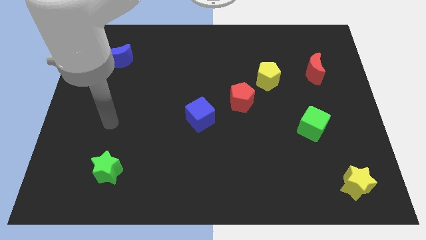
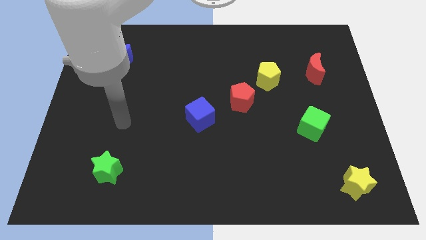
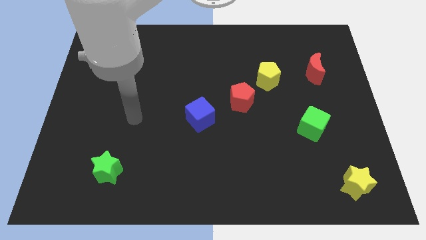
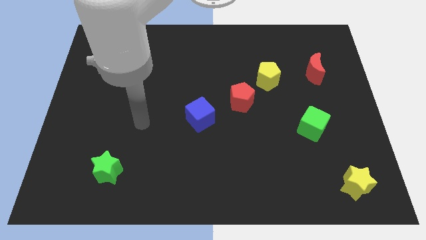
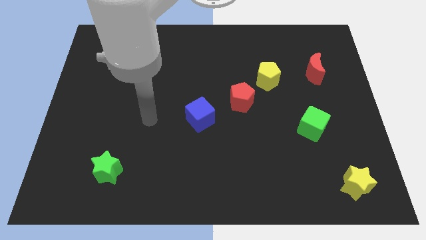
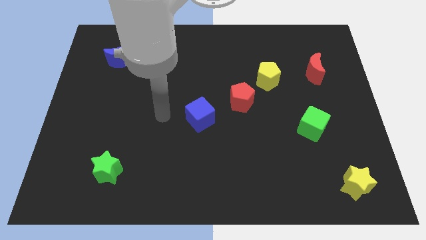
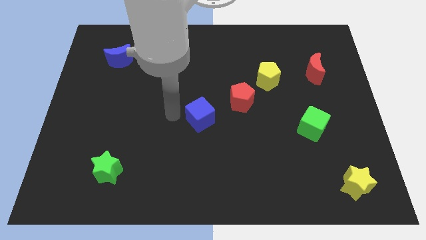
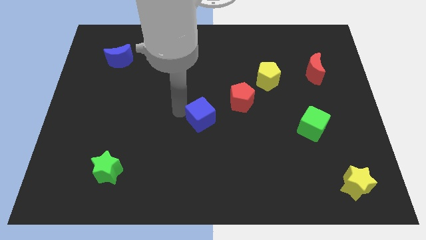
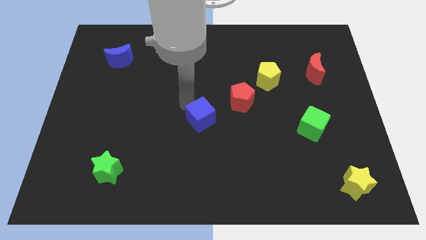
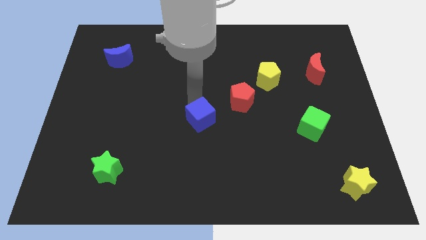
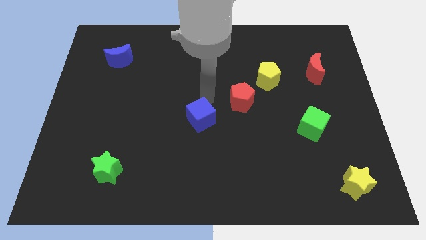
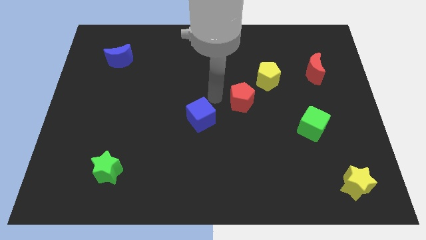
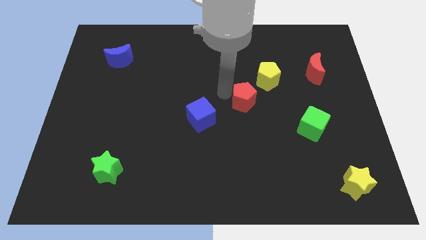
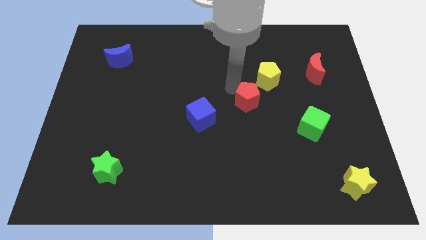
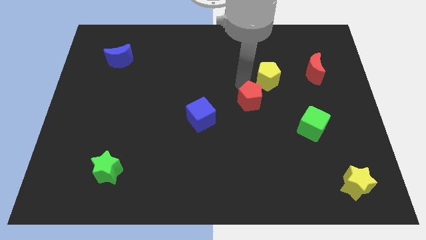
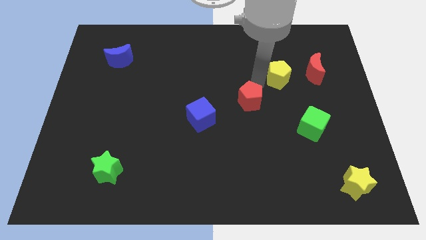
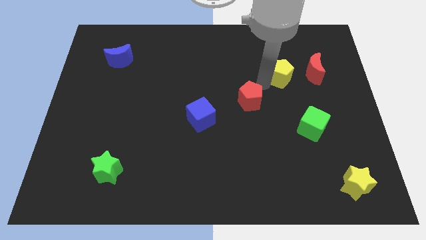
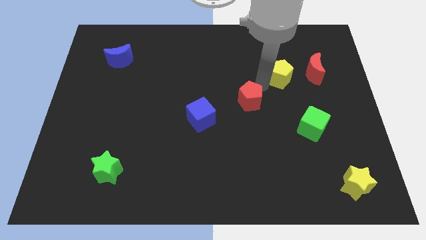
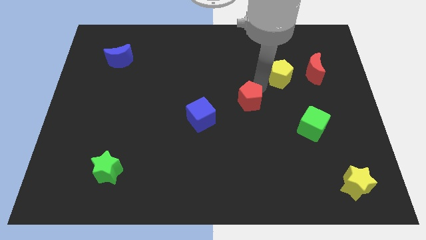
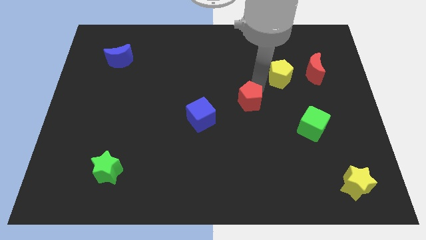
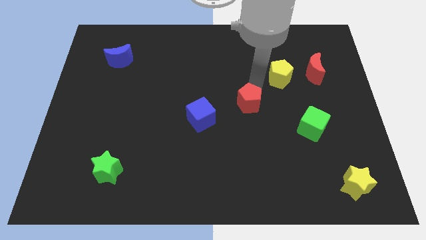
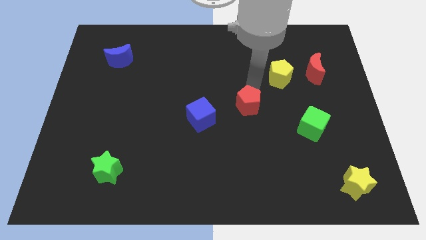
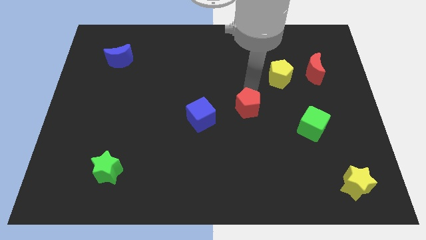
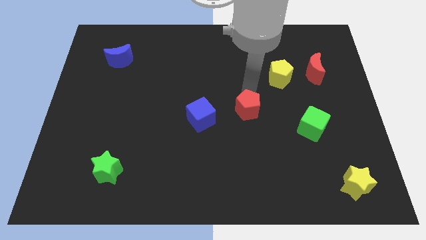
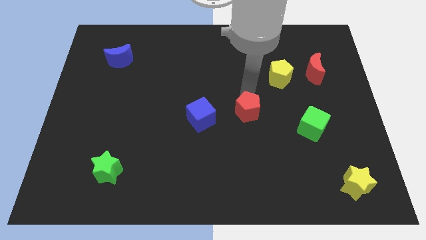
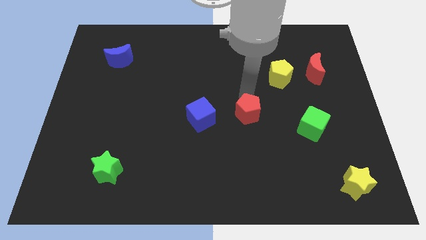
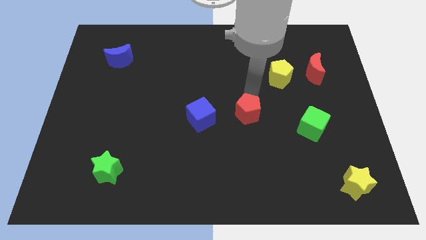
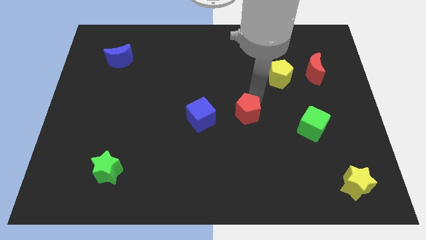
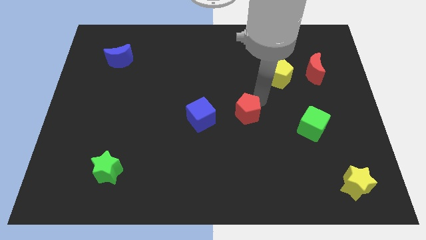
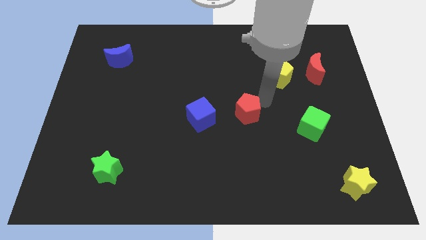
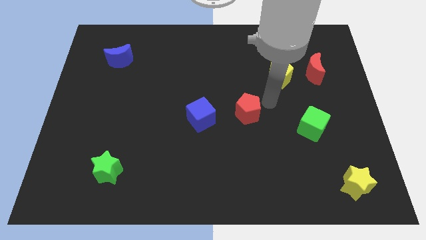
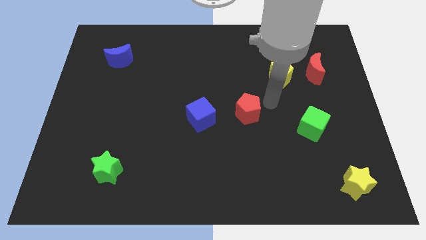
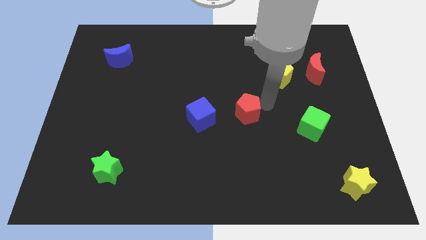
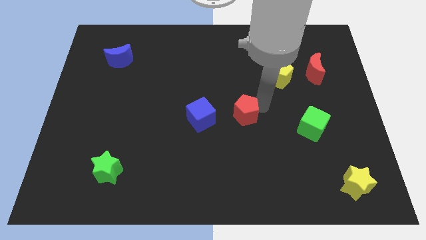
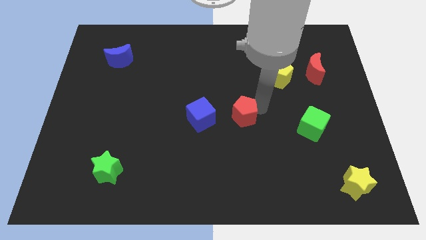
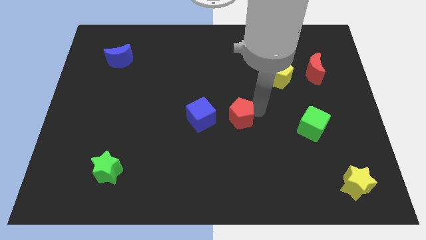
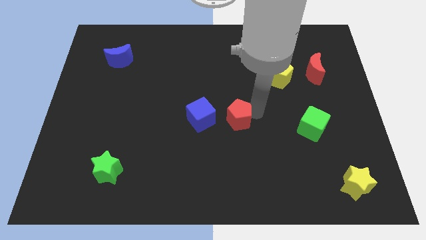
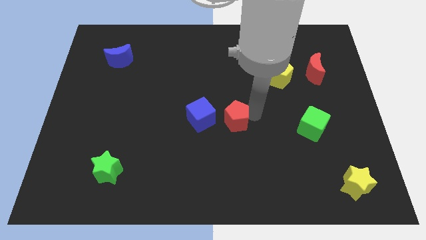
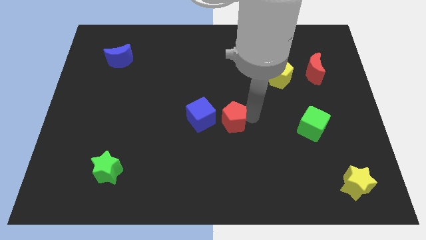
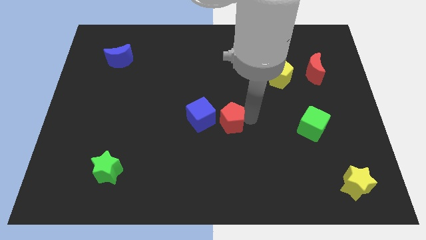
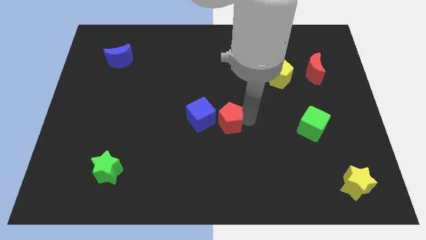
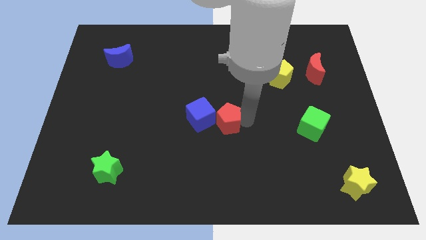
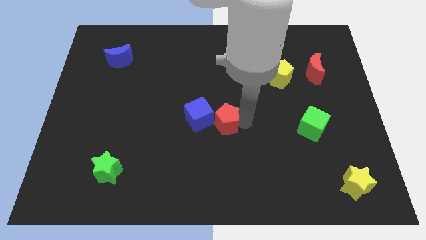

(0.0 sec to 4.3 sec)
move the red pentagon diagonally downwards and left a bit

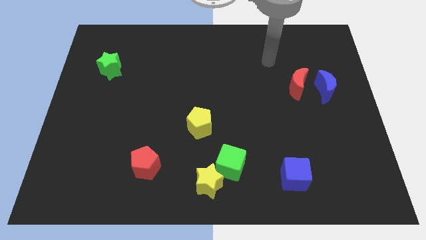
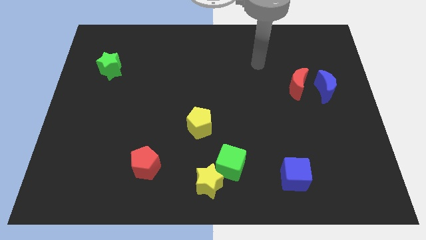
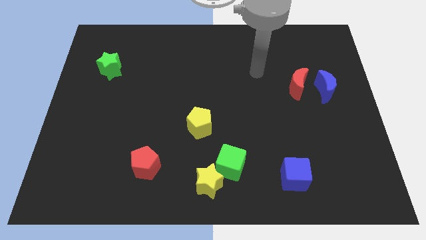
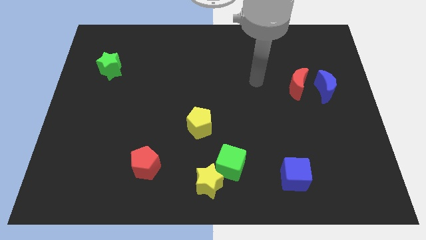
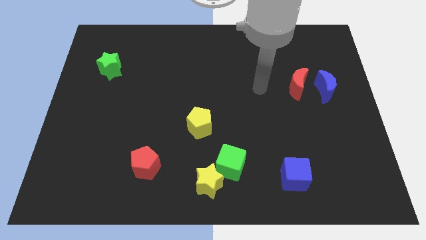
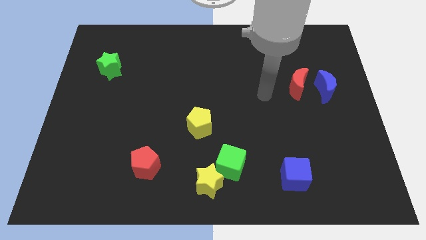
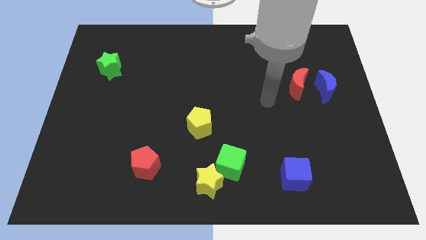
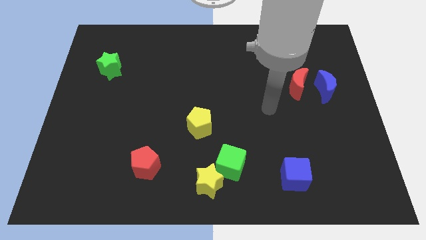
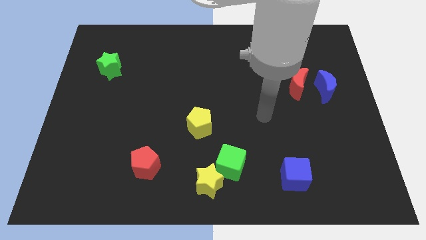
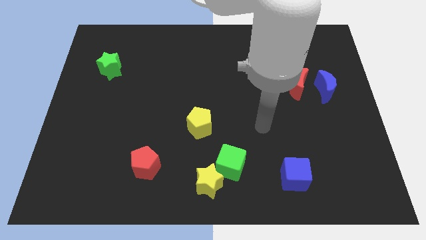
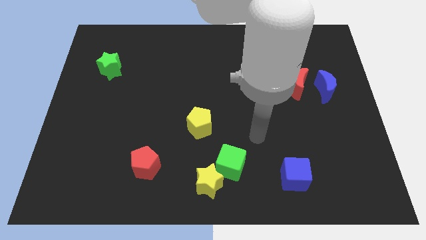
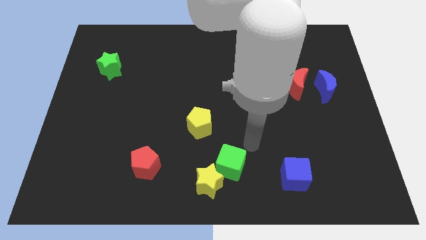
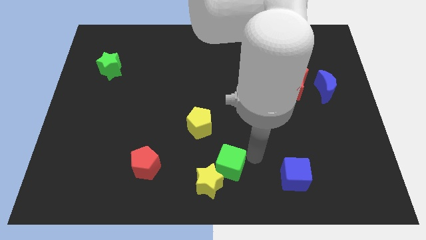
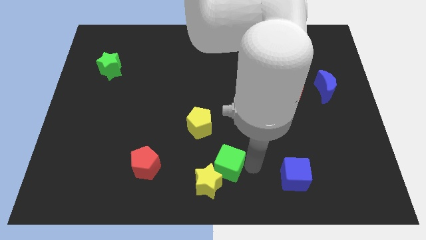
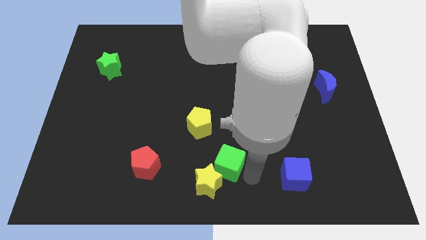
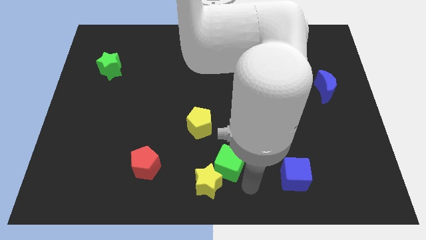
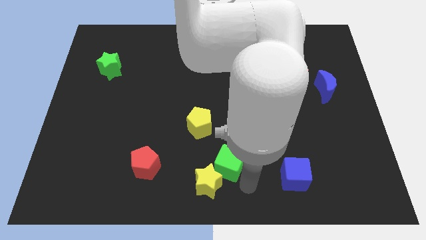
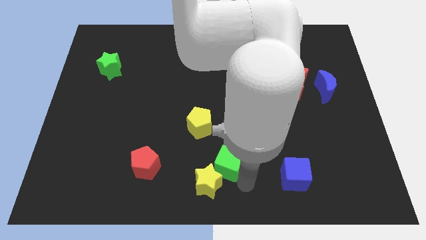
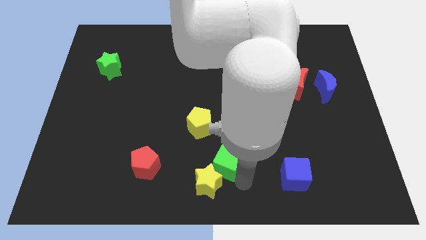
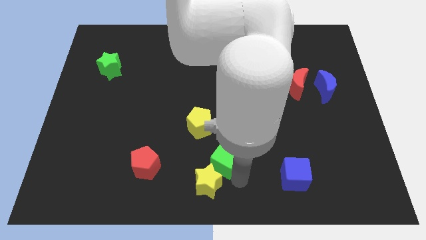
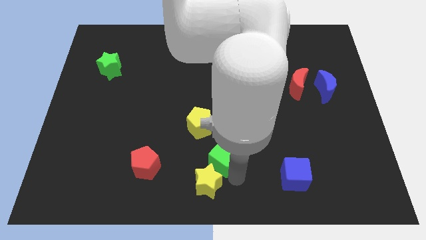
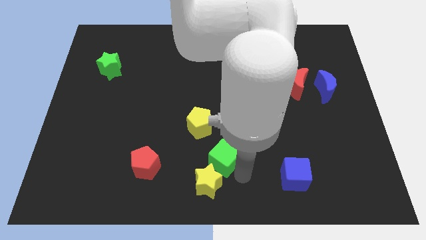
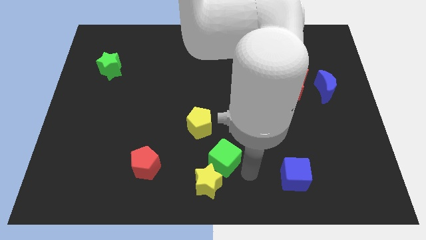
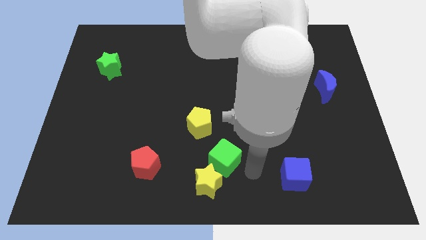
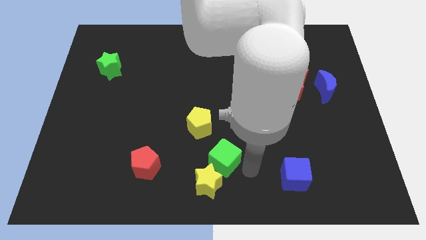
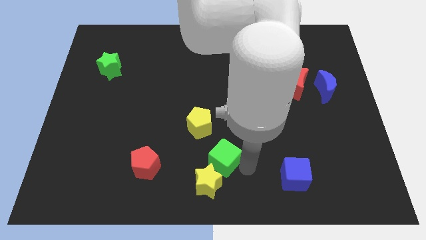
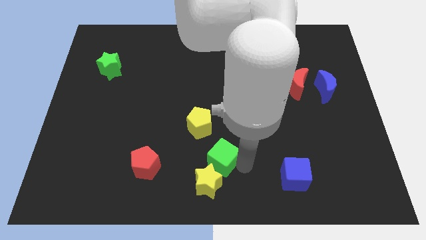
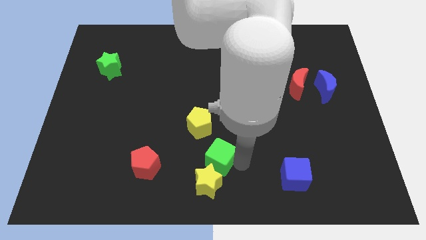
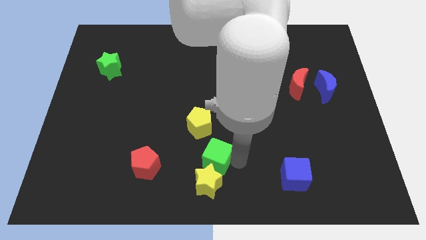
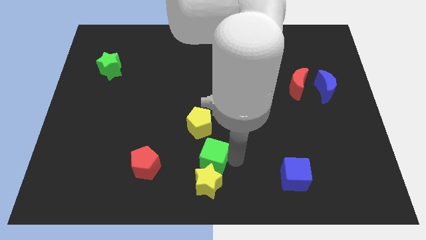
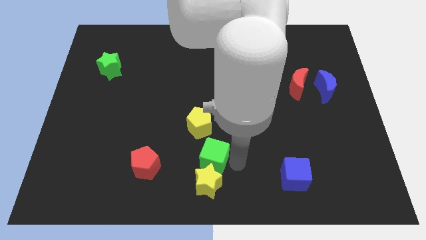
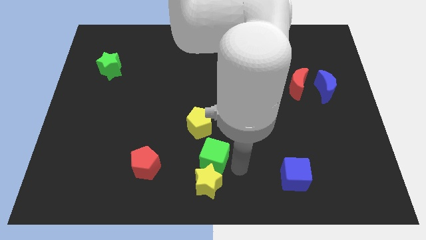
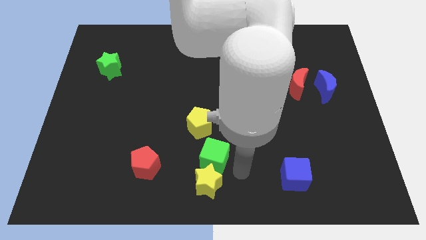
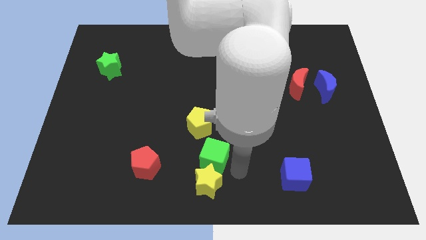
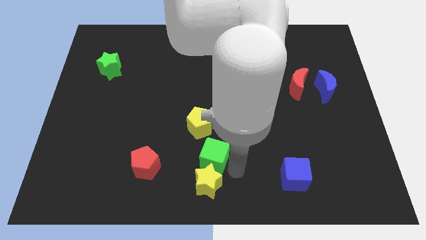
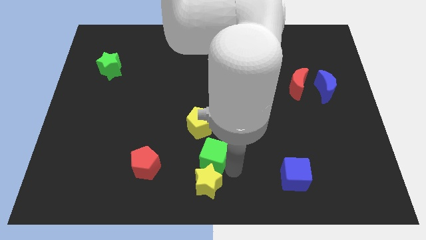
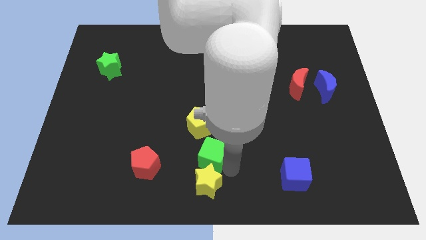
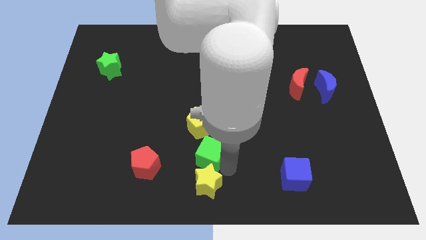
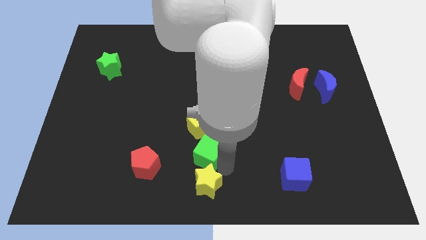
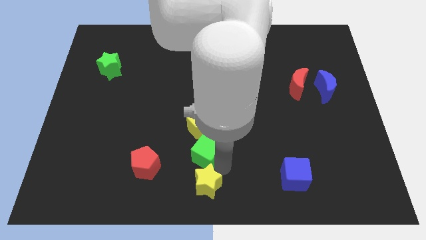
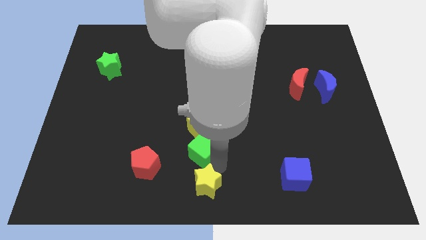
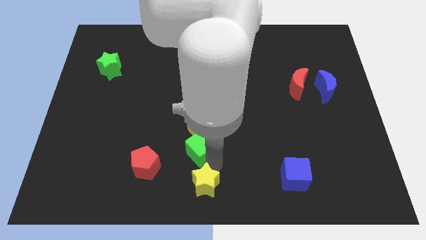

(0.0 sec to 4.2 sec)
slide the green cube somewhat upwards and left diagonally
